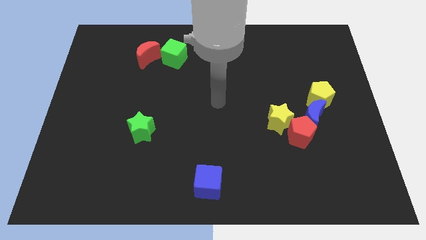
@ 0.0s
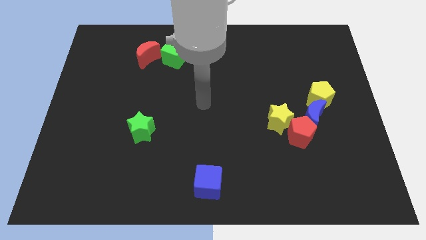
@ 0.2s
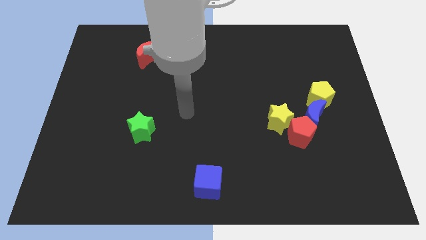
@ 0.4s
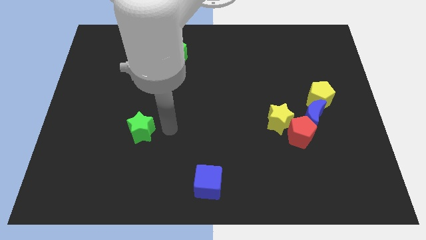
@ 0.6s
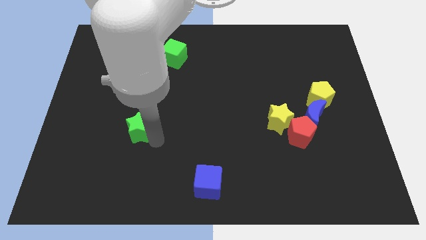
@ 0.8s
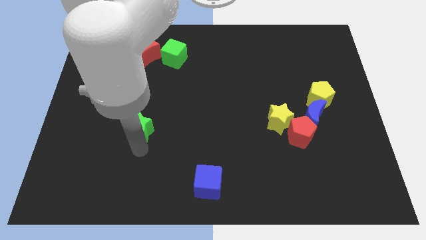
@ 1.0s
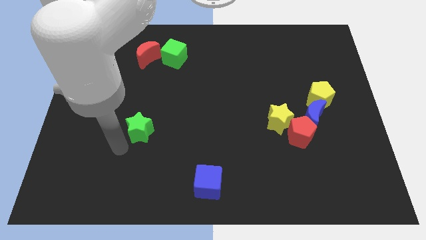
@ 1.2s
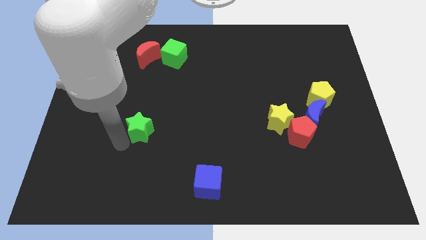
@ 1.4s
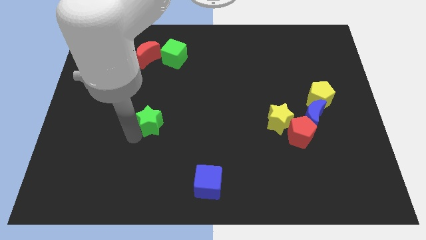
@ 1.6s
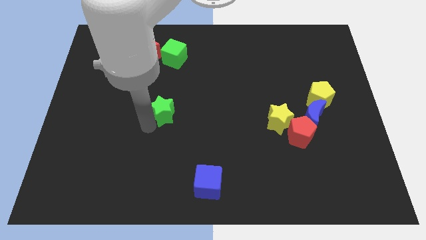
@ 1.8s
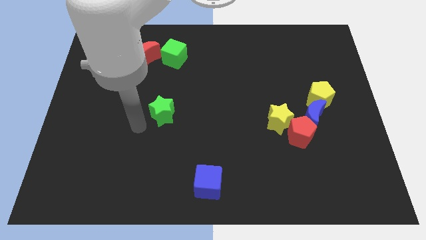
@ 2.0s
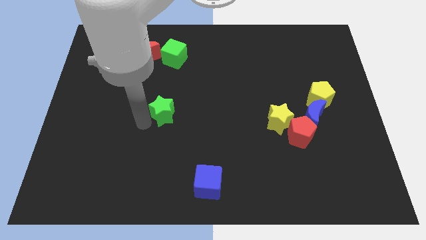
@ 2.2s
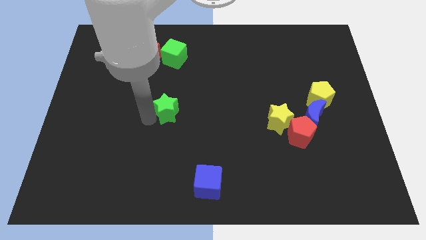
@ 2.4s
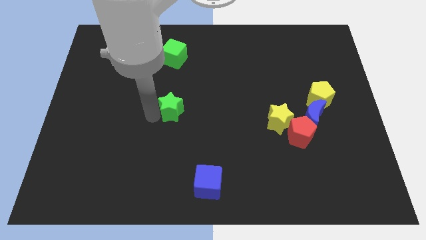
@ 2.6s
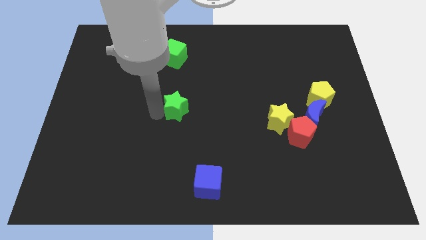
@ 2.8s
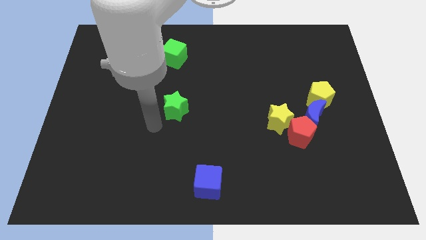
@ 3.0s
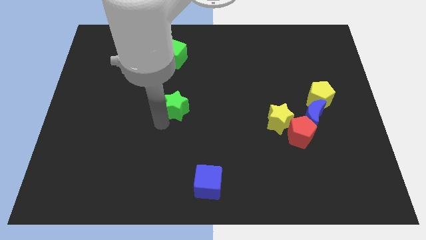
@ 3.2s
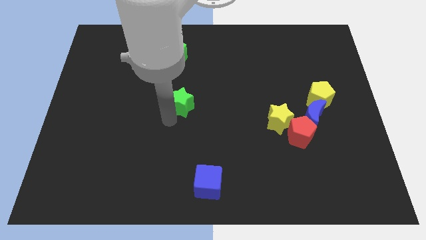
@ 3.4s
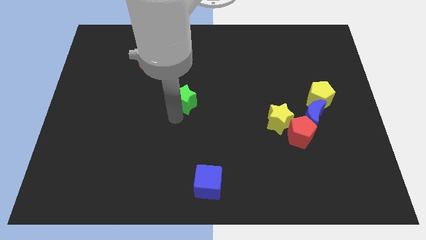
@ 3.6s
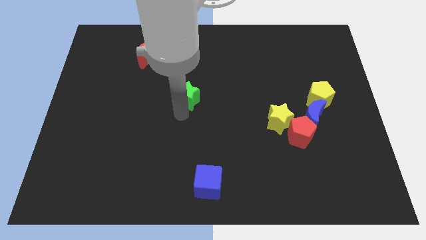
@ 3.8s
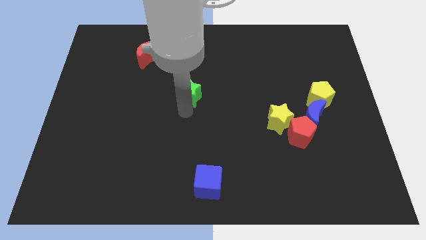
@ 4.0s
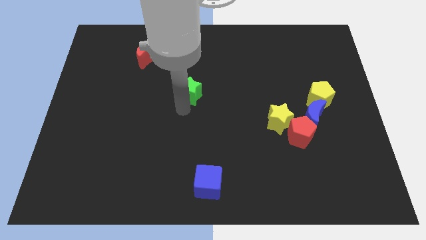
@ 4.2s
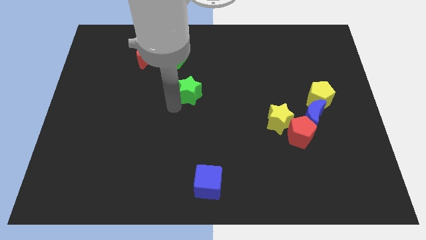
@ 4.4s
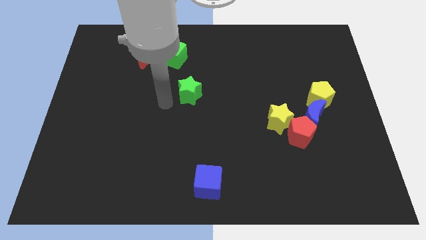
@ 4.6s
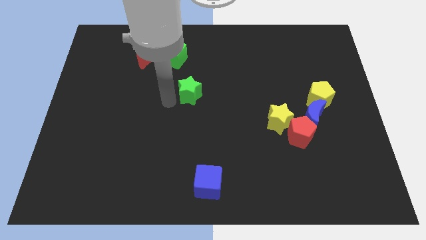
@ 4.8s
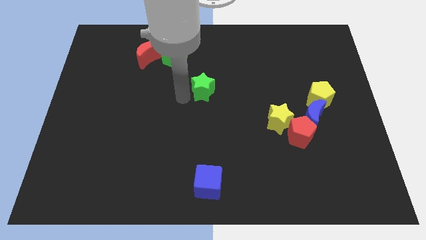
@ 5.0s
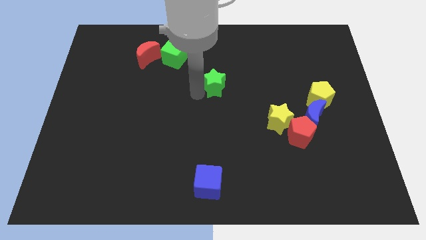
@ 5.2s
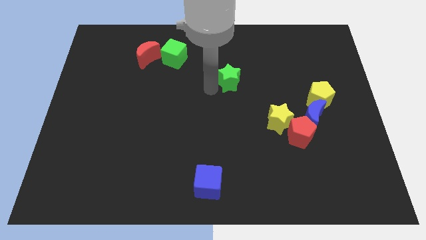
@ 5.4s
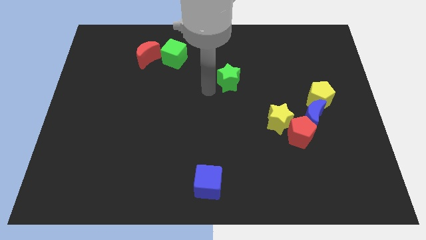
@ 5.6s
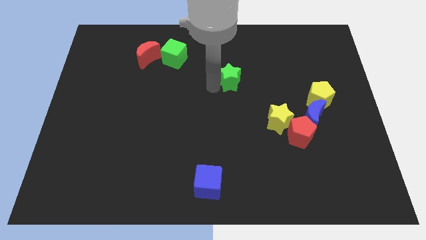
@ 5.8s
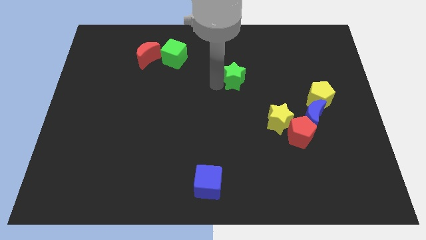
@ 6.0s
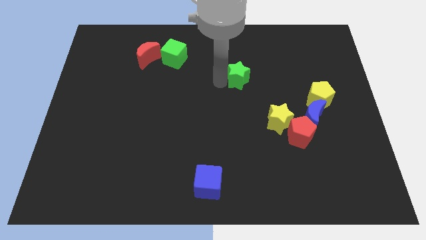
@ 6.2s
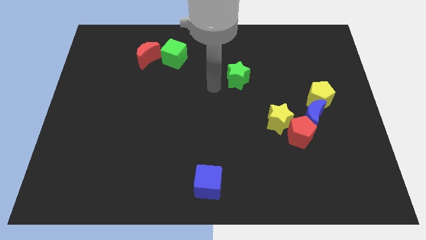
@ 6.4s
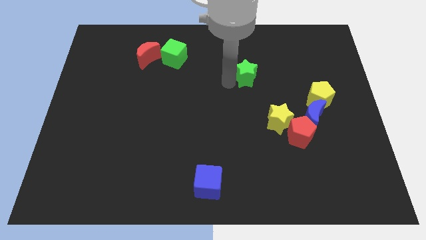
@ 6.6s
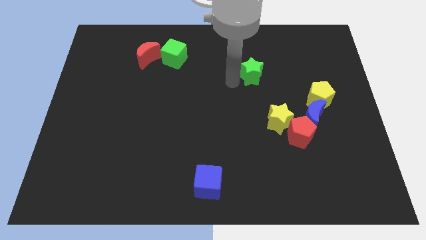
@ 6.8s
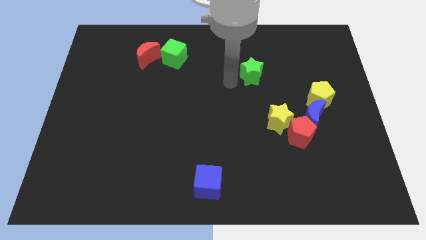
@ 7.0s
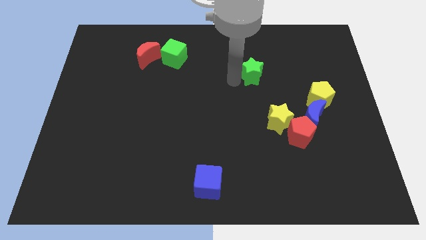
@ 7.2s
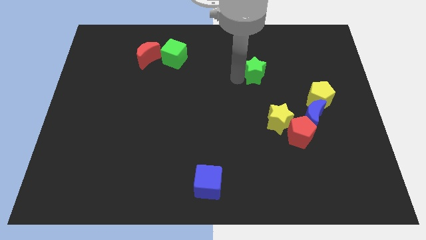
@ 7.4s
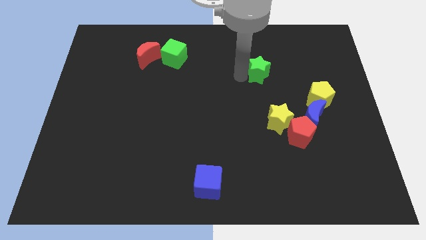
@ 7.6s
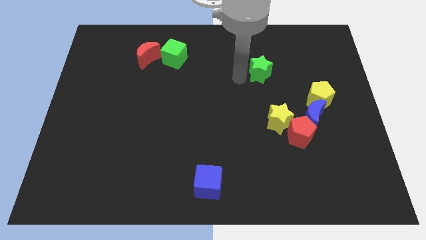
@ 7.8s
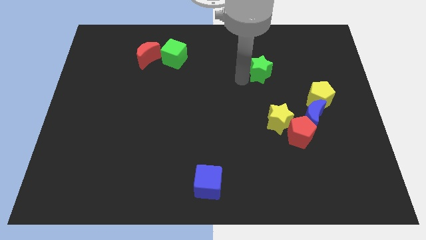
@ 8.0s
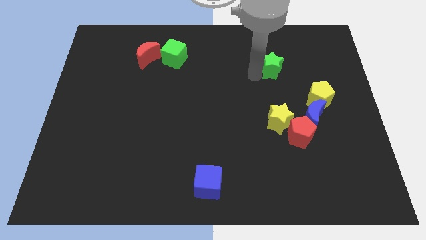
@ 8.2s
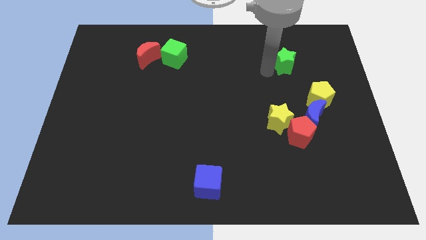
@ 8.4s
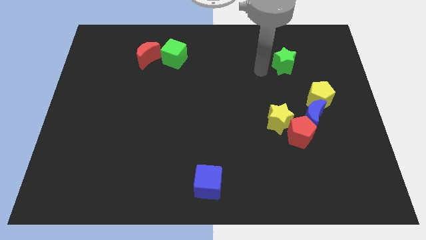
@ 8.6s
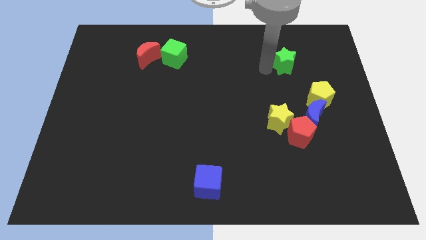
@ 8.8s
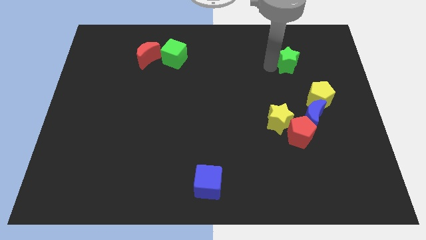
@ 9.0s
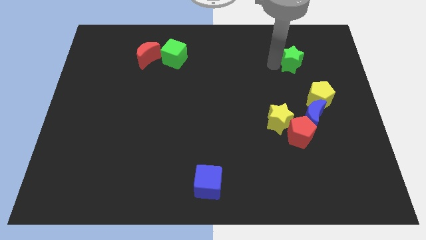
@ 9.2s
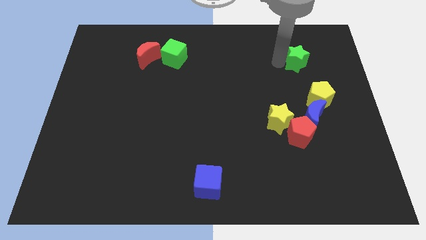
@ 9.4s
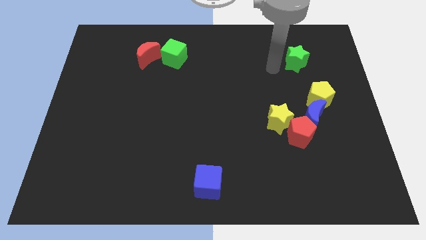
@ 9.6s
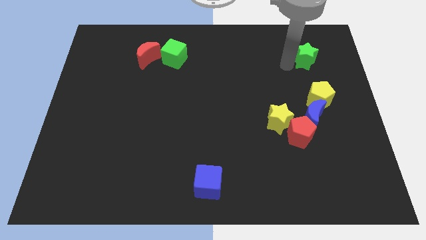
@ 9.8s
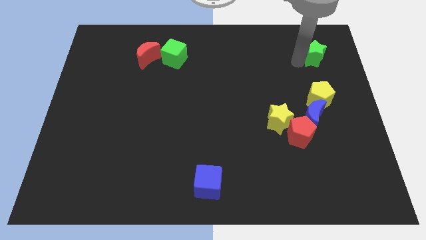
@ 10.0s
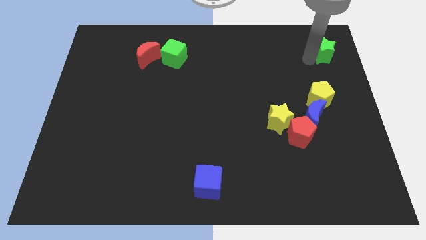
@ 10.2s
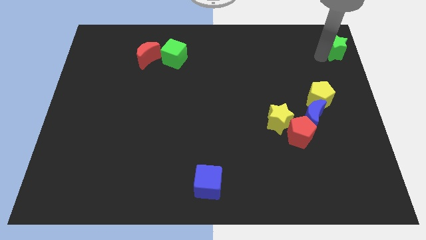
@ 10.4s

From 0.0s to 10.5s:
push the green star to the upper right corner

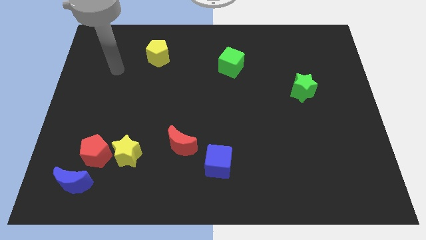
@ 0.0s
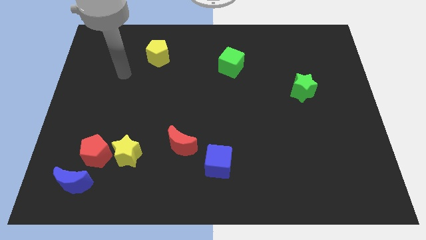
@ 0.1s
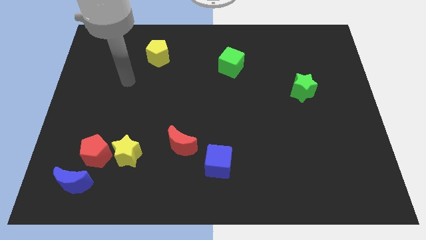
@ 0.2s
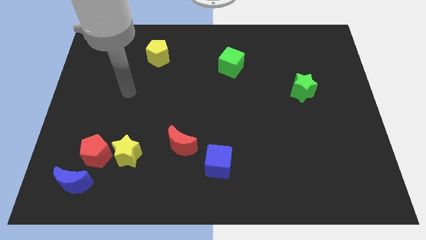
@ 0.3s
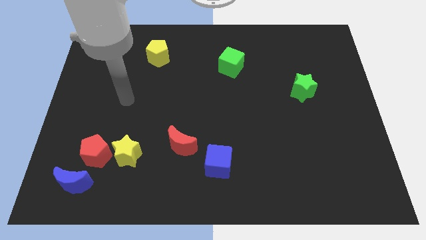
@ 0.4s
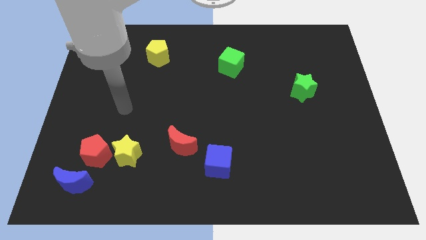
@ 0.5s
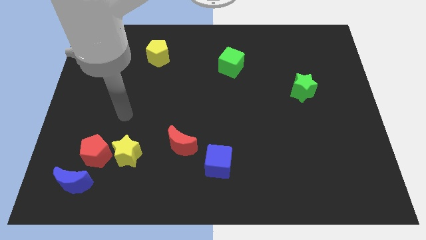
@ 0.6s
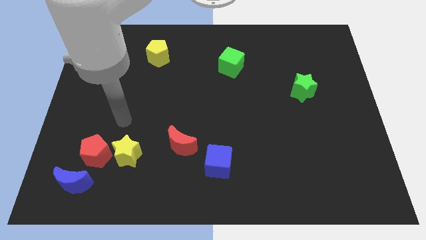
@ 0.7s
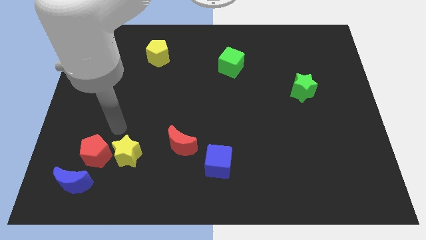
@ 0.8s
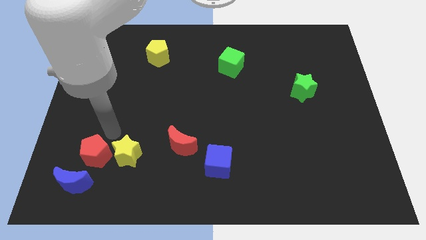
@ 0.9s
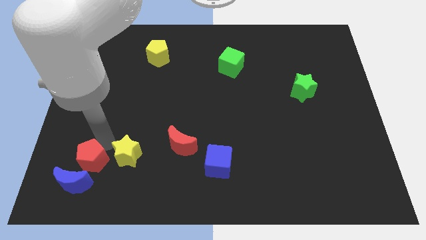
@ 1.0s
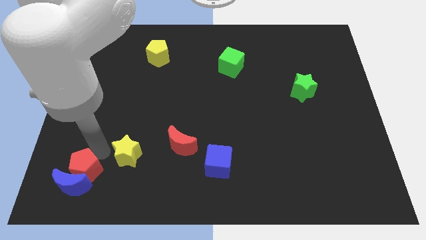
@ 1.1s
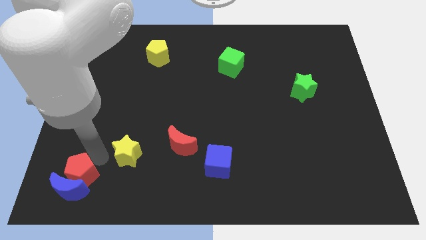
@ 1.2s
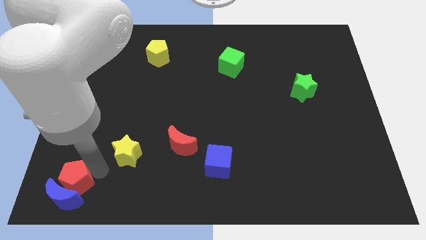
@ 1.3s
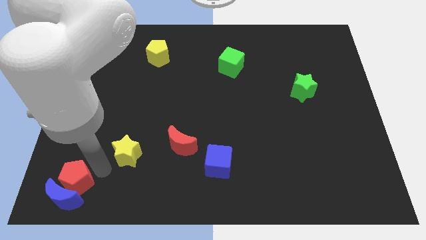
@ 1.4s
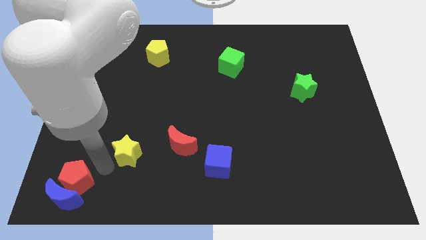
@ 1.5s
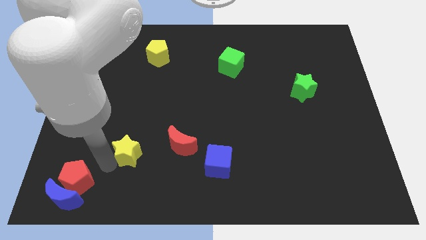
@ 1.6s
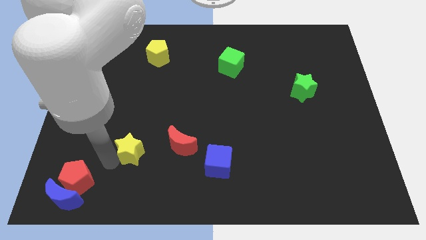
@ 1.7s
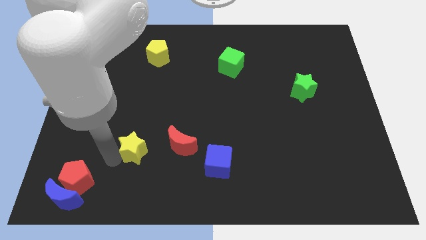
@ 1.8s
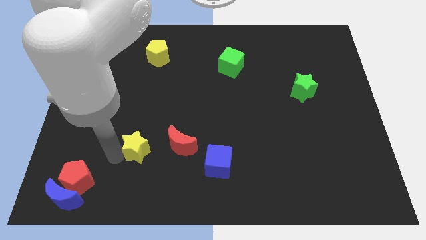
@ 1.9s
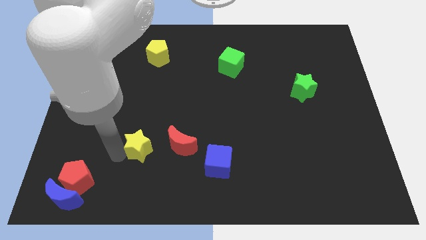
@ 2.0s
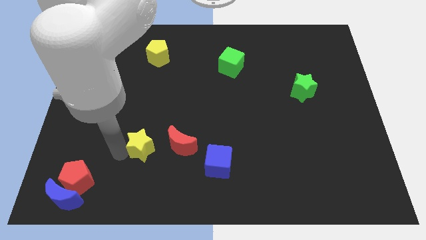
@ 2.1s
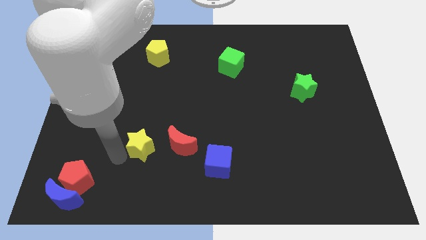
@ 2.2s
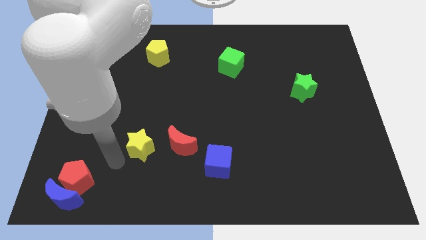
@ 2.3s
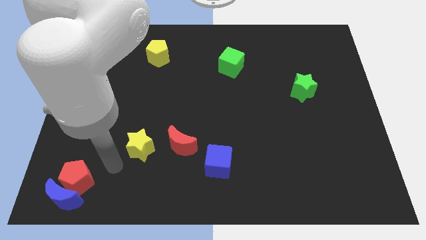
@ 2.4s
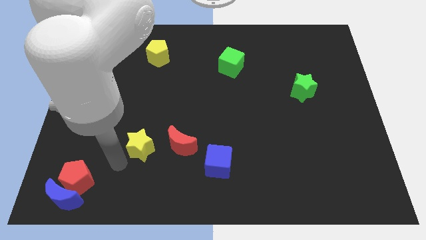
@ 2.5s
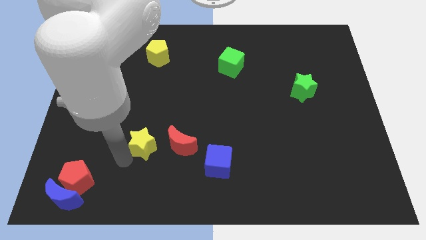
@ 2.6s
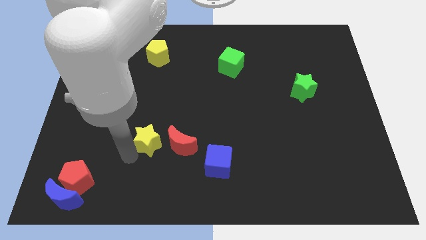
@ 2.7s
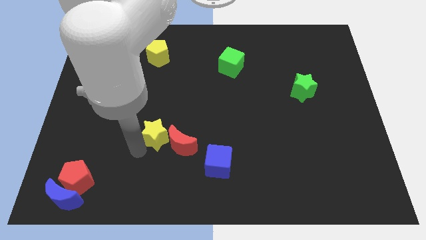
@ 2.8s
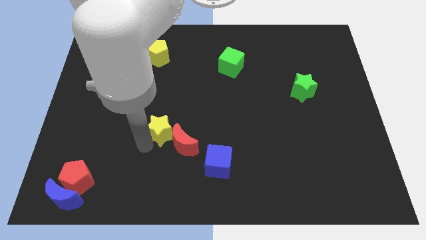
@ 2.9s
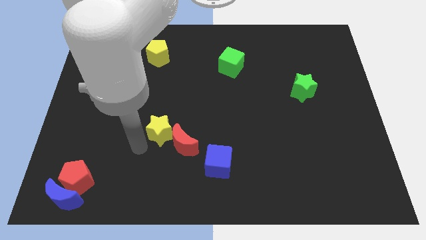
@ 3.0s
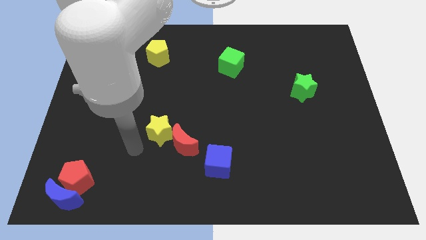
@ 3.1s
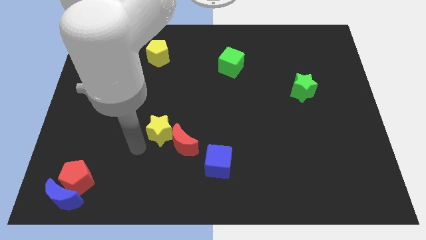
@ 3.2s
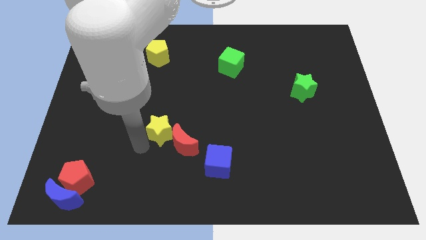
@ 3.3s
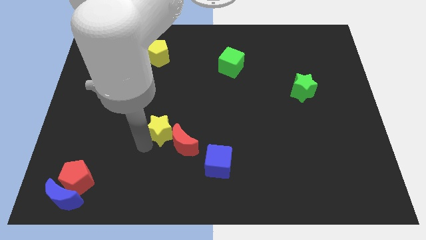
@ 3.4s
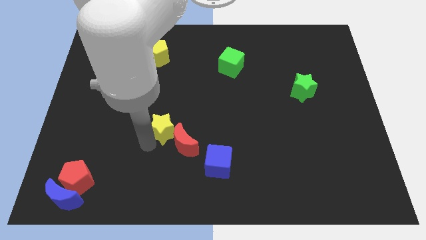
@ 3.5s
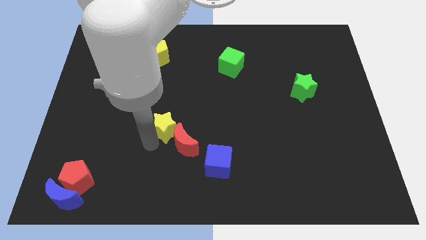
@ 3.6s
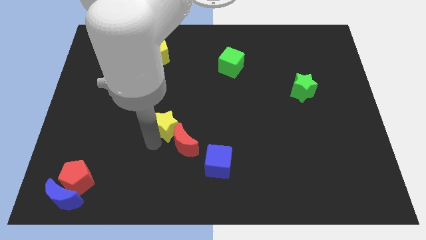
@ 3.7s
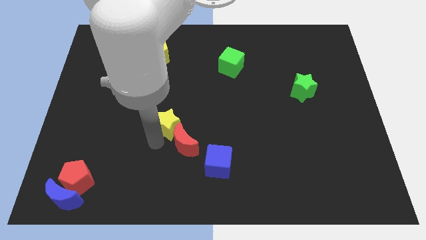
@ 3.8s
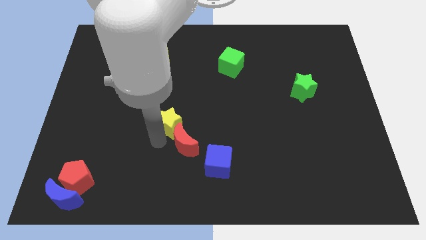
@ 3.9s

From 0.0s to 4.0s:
push the yellow star to the middle of the board
